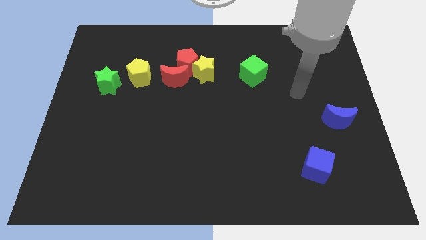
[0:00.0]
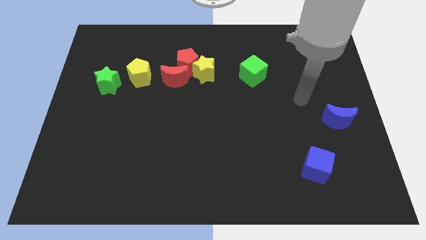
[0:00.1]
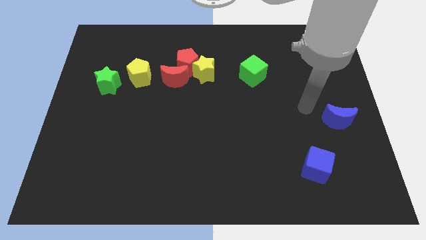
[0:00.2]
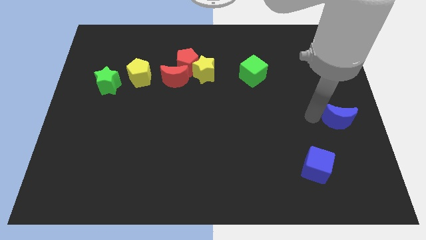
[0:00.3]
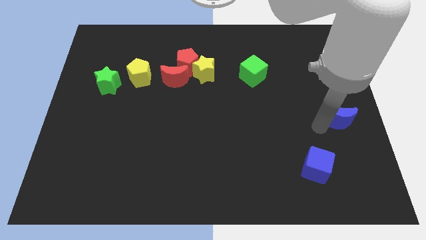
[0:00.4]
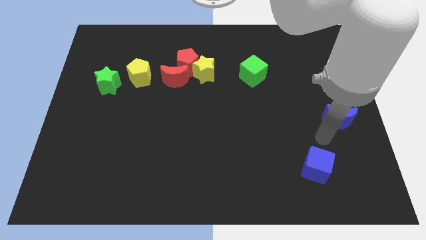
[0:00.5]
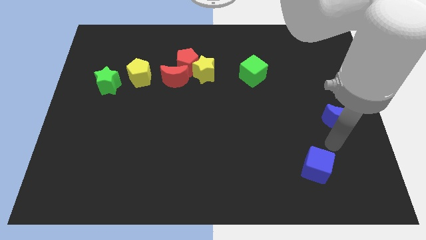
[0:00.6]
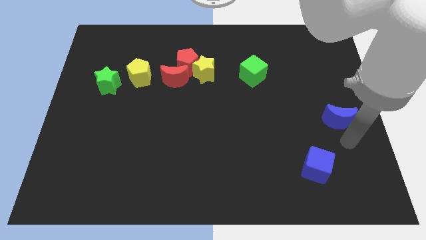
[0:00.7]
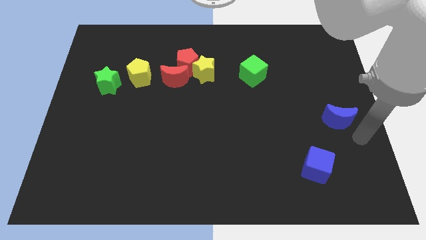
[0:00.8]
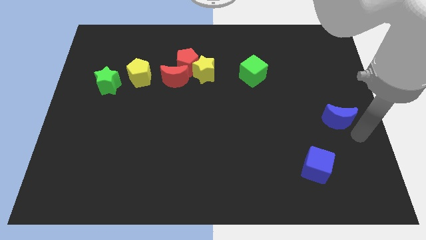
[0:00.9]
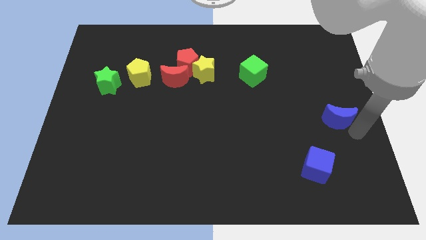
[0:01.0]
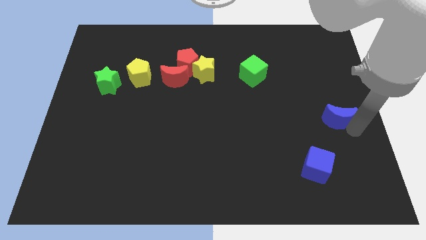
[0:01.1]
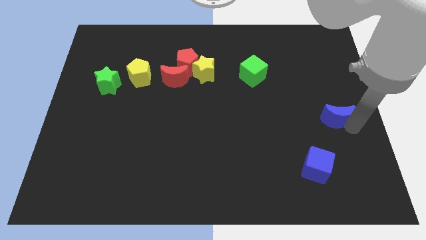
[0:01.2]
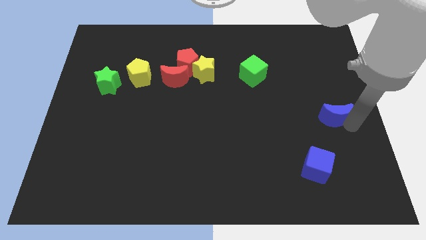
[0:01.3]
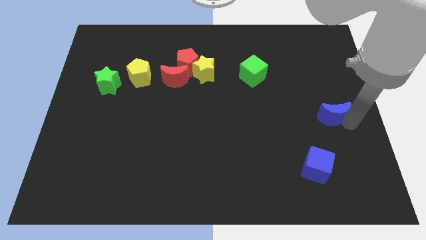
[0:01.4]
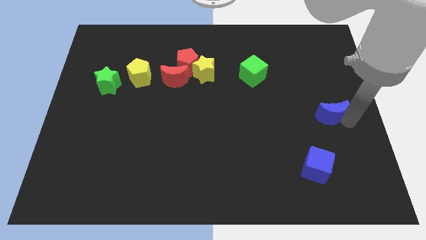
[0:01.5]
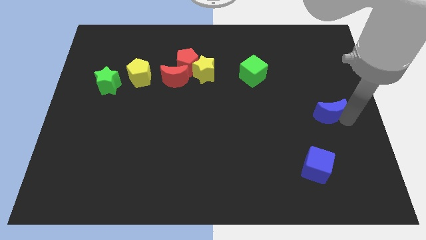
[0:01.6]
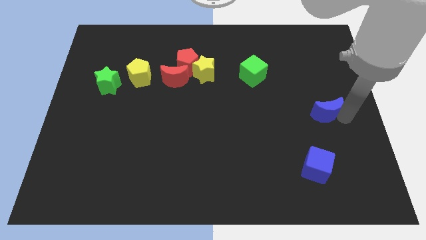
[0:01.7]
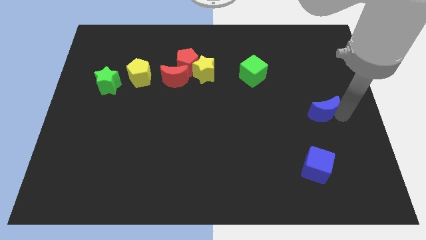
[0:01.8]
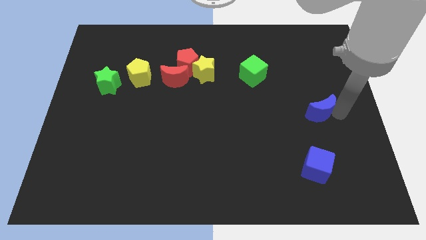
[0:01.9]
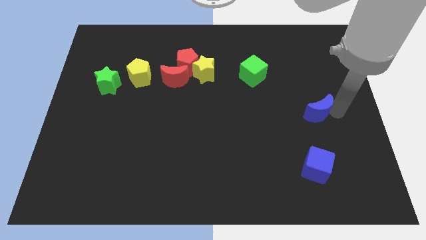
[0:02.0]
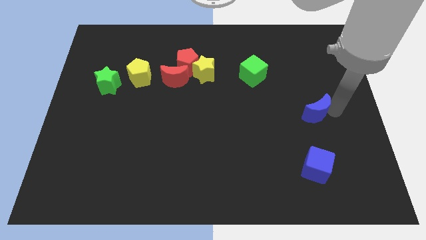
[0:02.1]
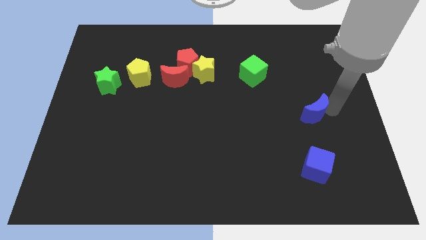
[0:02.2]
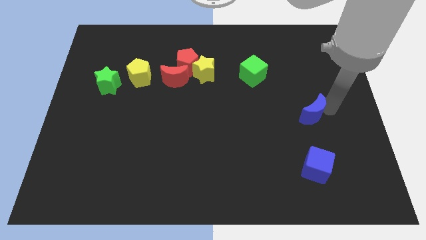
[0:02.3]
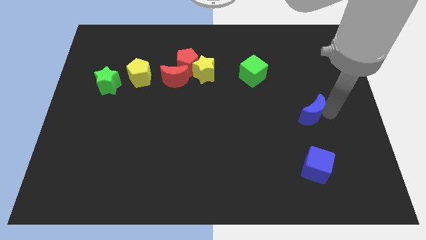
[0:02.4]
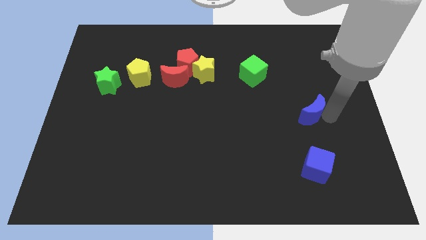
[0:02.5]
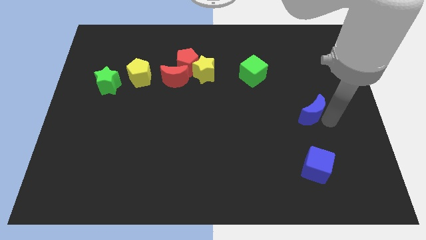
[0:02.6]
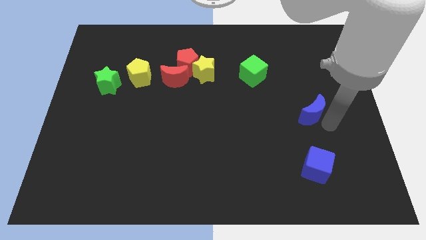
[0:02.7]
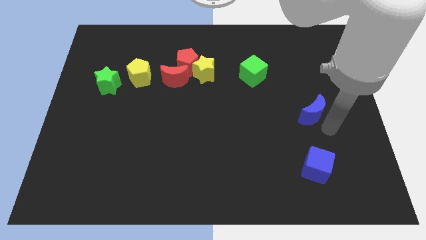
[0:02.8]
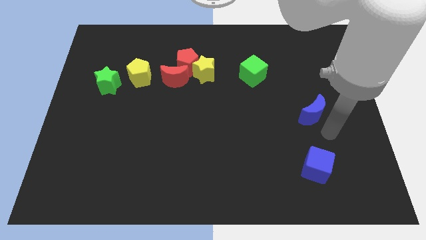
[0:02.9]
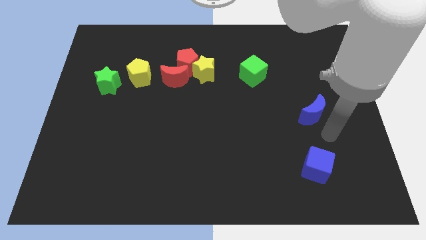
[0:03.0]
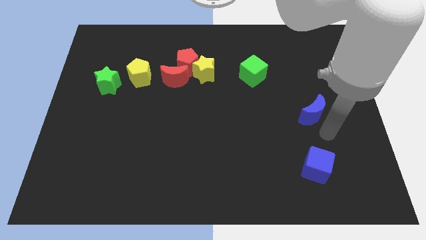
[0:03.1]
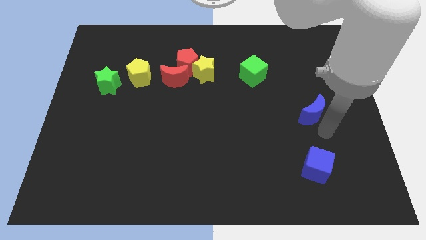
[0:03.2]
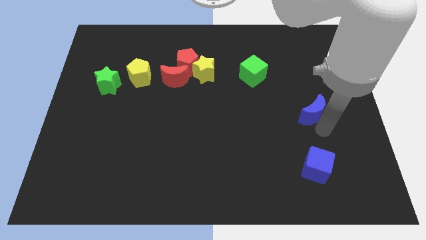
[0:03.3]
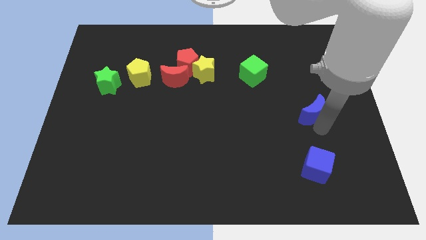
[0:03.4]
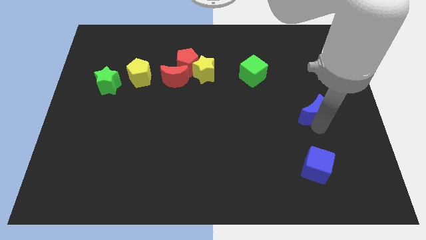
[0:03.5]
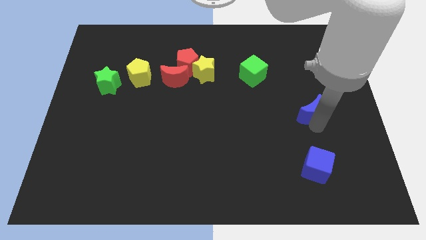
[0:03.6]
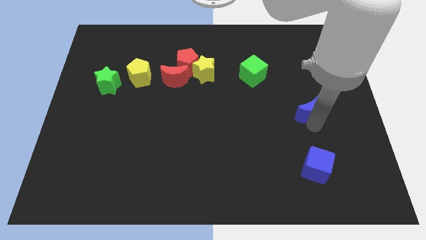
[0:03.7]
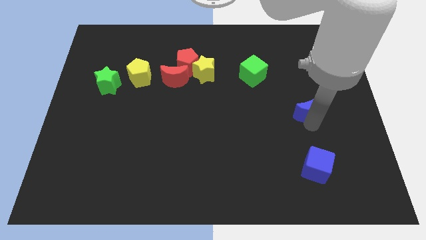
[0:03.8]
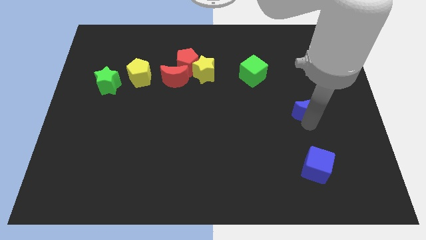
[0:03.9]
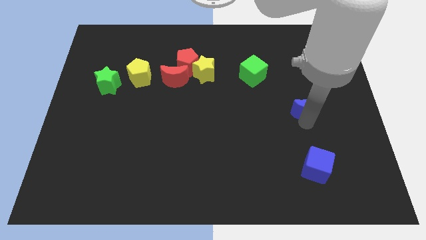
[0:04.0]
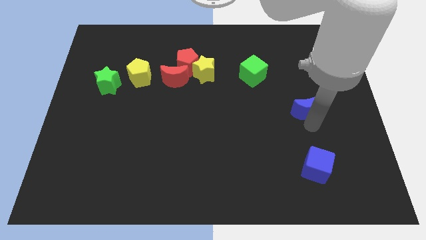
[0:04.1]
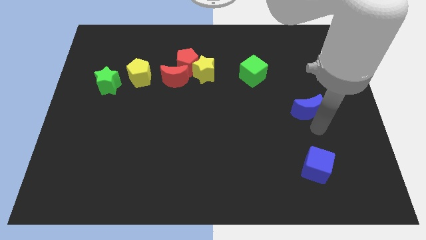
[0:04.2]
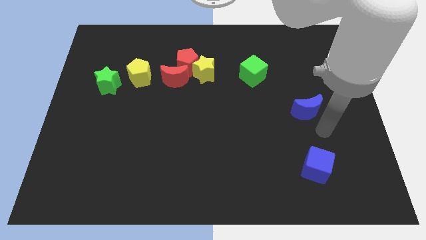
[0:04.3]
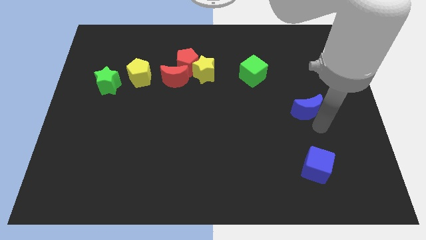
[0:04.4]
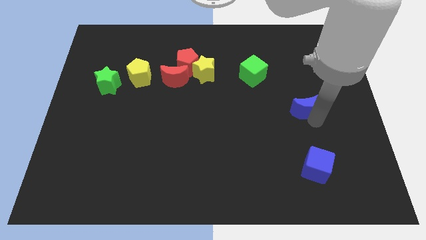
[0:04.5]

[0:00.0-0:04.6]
slide the blue moon upwards and then left somewhat

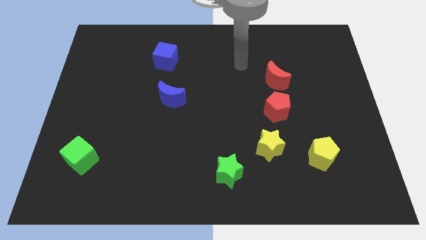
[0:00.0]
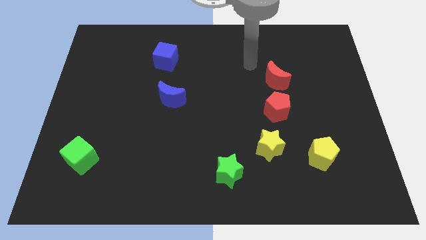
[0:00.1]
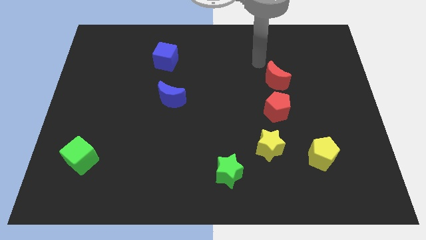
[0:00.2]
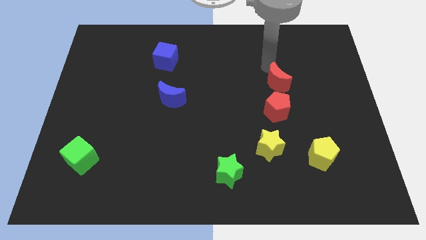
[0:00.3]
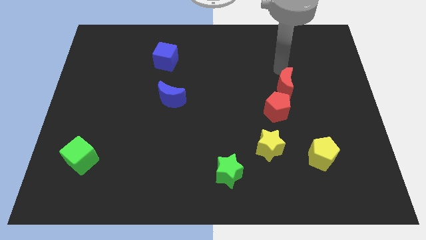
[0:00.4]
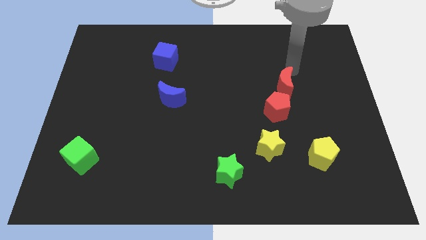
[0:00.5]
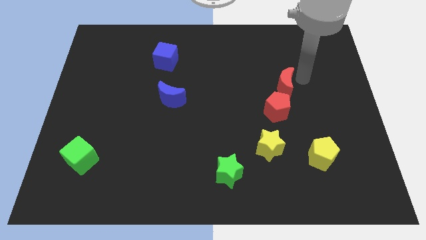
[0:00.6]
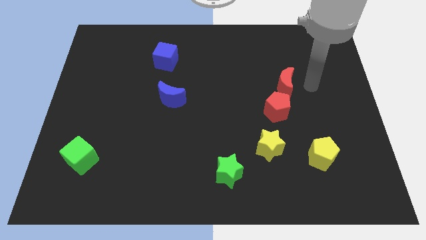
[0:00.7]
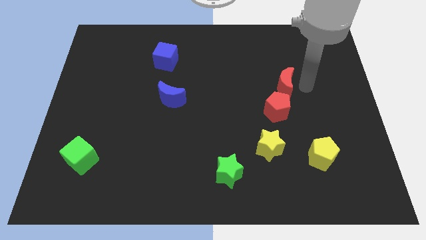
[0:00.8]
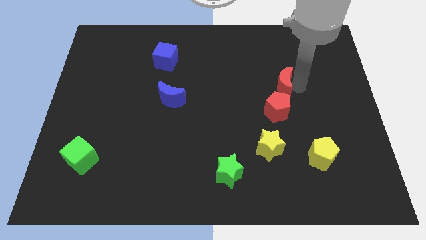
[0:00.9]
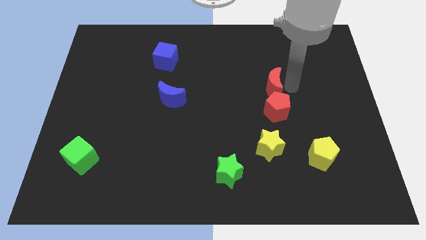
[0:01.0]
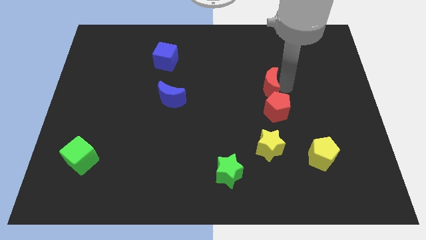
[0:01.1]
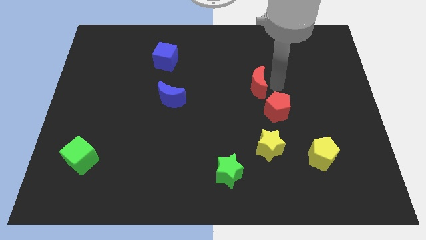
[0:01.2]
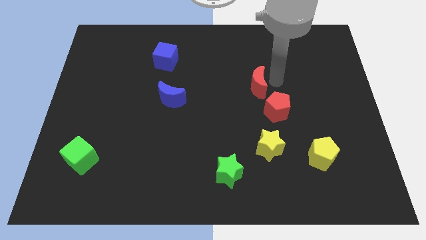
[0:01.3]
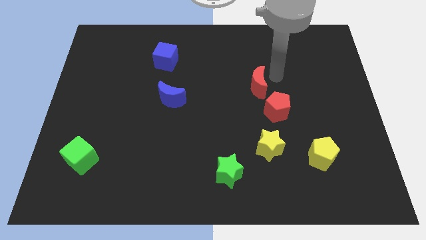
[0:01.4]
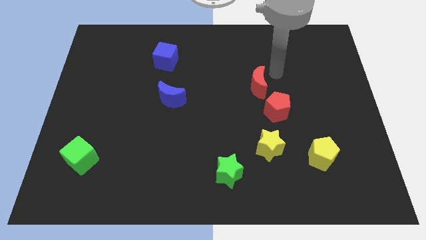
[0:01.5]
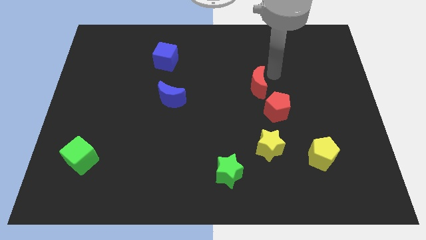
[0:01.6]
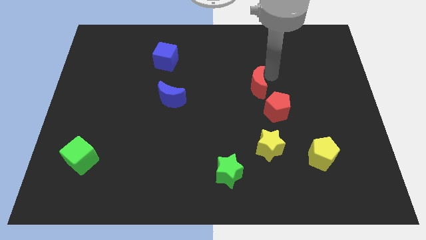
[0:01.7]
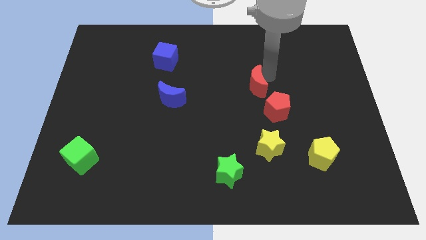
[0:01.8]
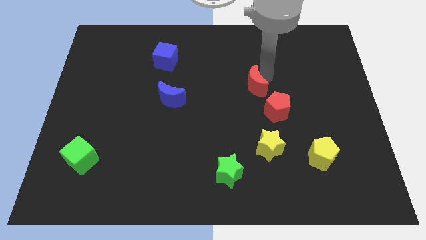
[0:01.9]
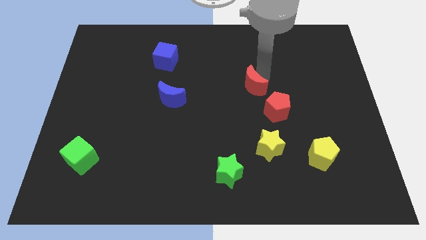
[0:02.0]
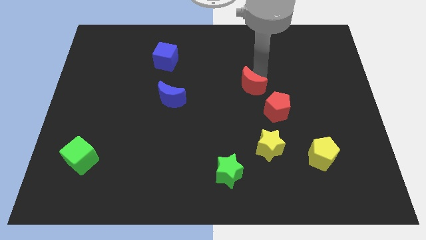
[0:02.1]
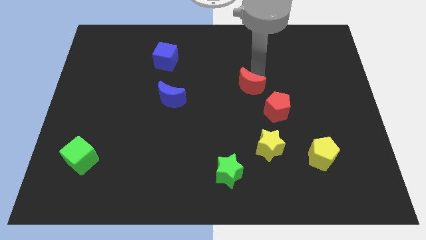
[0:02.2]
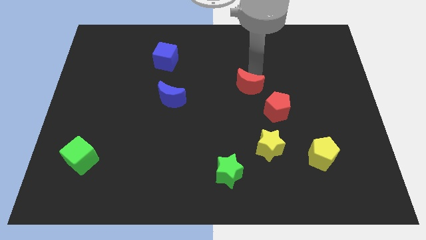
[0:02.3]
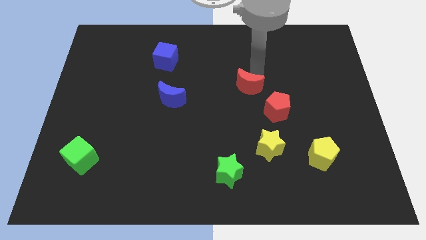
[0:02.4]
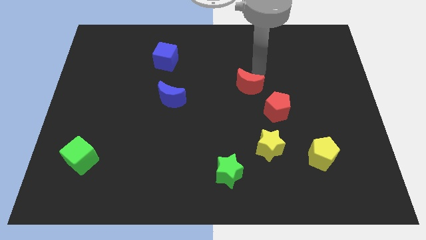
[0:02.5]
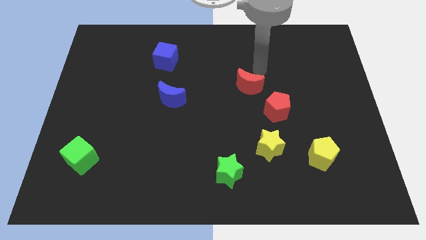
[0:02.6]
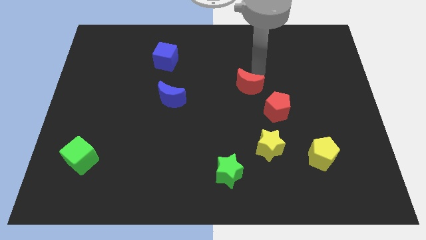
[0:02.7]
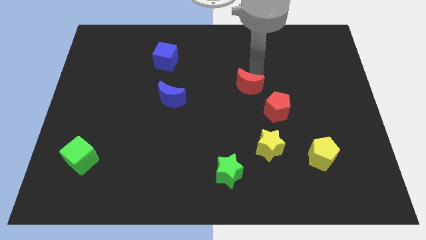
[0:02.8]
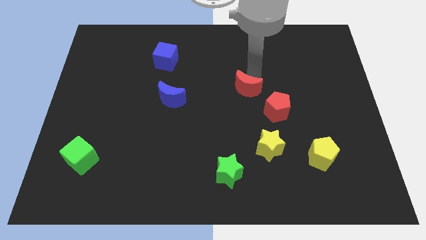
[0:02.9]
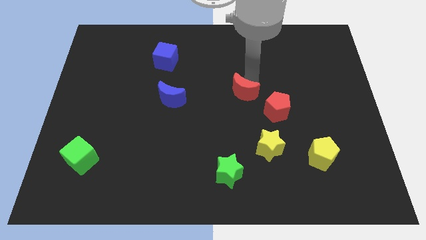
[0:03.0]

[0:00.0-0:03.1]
move the red moon a little bit diagonally down and to the left

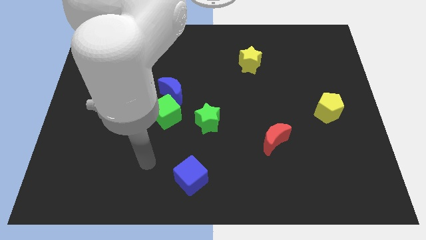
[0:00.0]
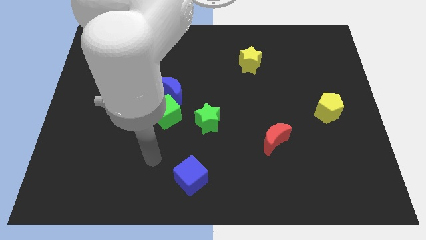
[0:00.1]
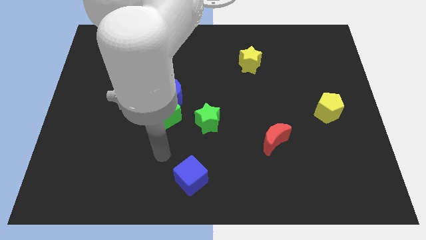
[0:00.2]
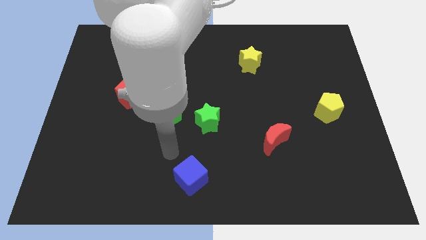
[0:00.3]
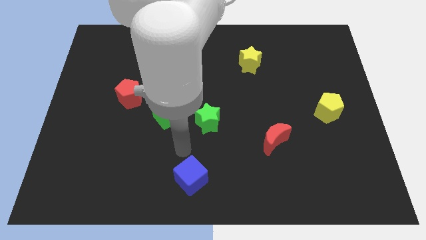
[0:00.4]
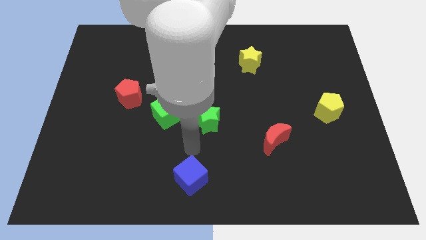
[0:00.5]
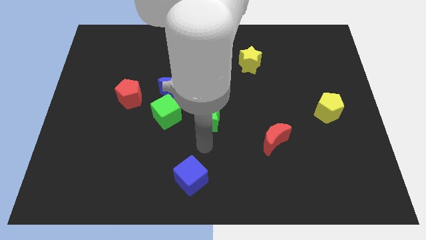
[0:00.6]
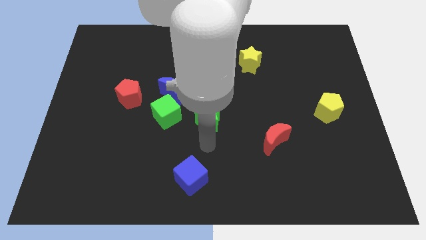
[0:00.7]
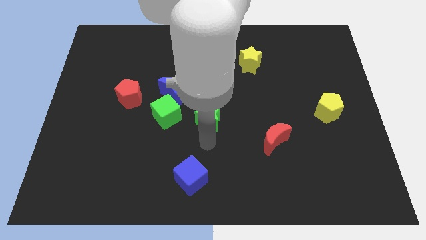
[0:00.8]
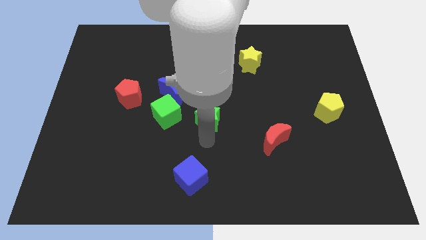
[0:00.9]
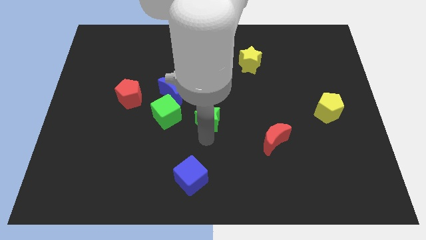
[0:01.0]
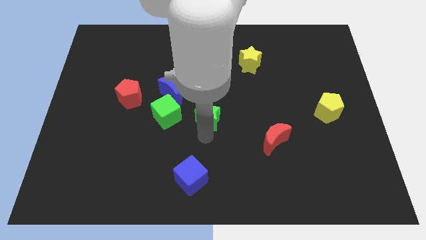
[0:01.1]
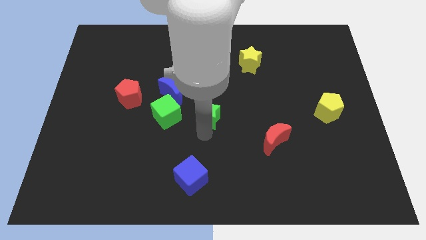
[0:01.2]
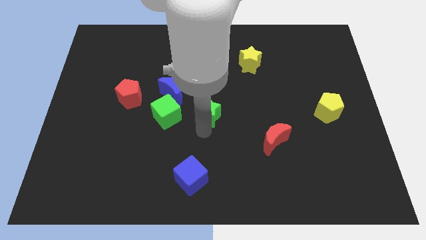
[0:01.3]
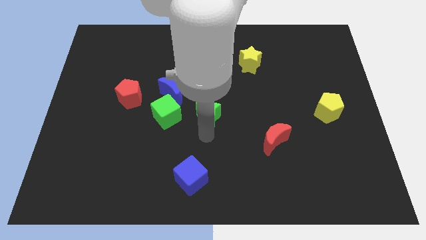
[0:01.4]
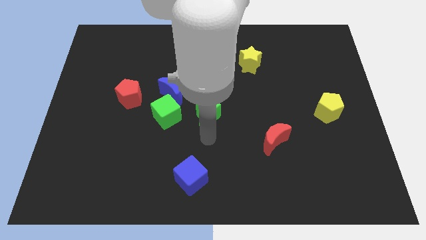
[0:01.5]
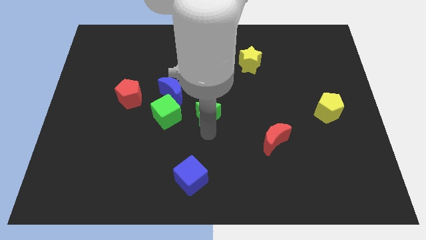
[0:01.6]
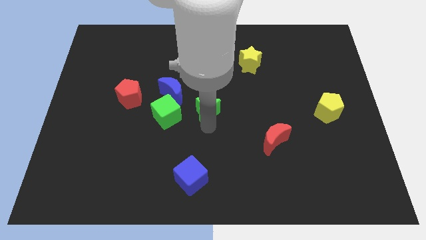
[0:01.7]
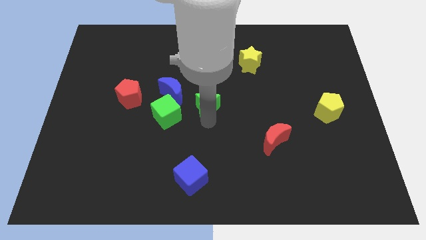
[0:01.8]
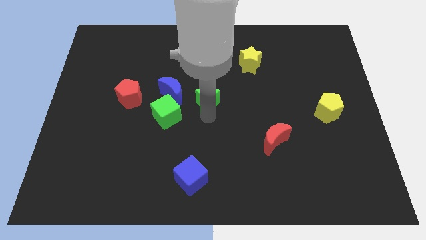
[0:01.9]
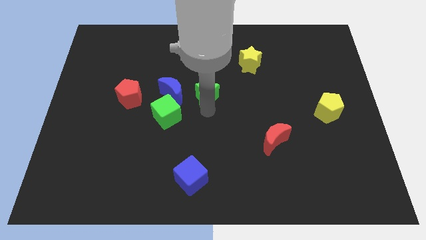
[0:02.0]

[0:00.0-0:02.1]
slightly slide the green star upwards
